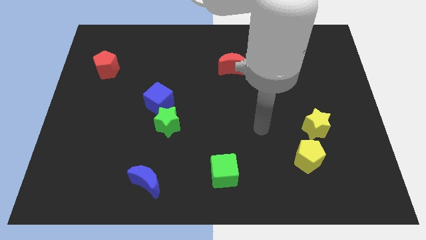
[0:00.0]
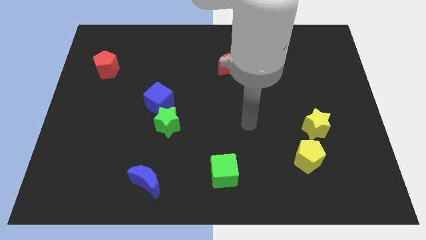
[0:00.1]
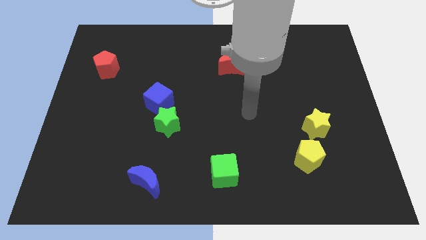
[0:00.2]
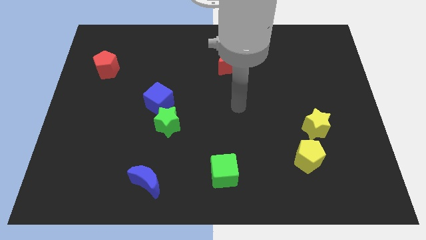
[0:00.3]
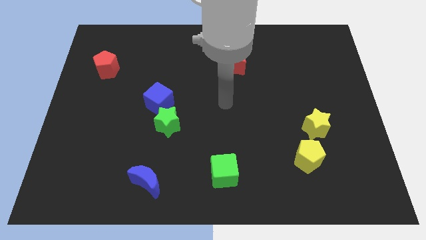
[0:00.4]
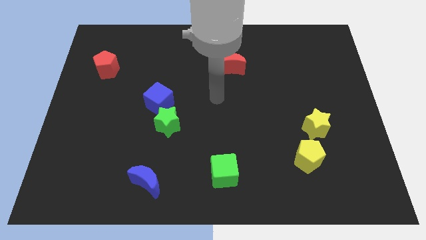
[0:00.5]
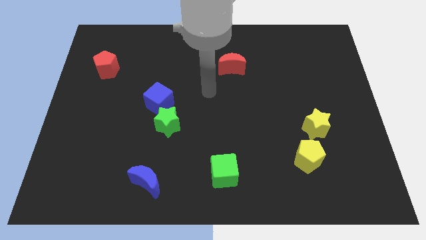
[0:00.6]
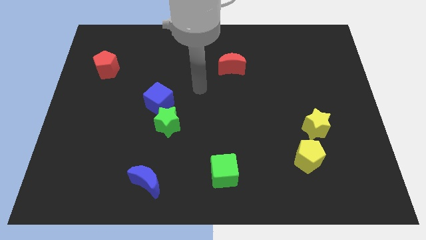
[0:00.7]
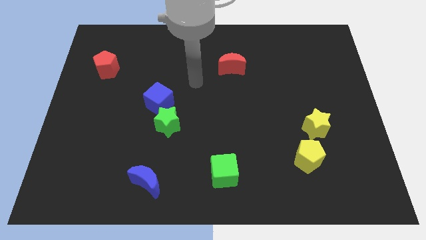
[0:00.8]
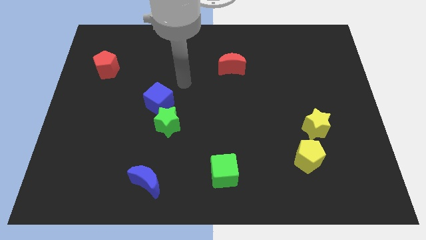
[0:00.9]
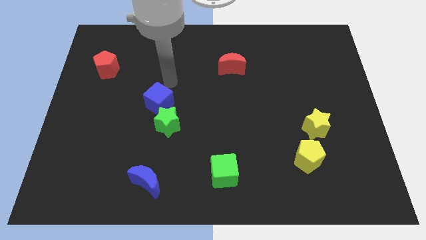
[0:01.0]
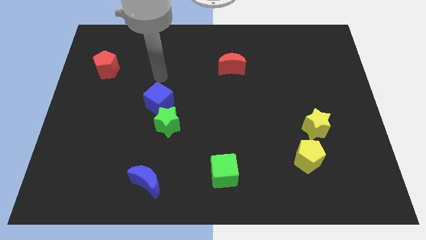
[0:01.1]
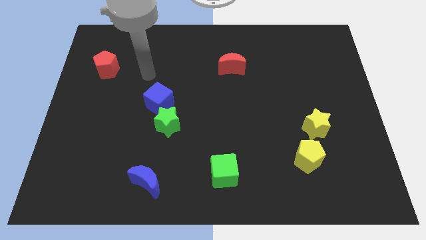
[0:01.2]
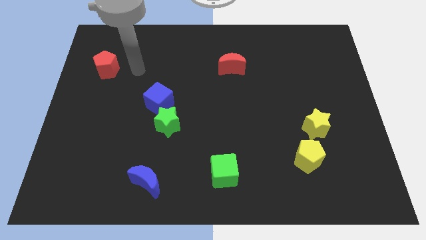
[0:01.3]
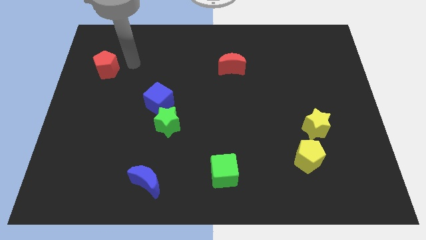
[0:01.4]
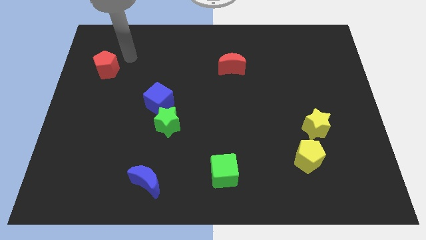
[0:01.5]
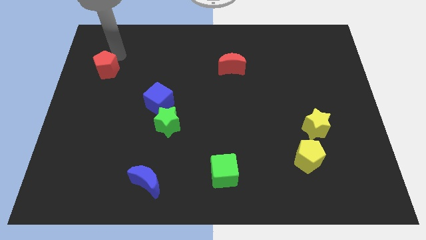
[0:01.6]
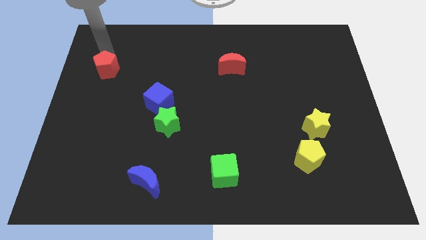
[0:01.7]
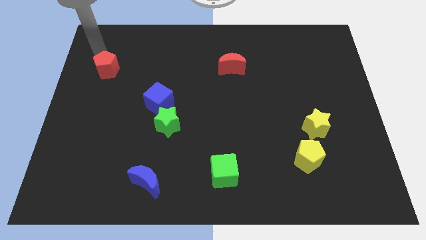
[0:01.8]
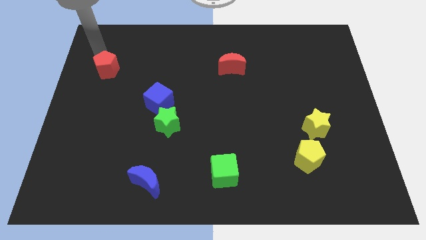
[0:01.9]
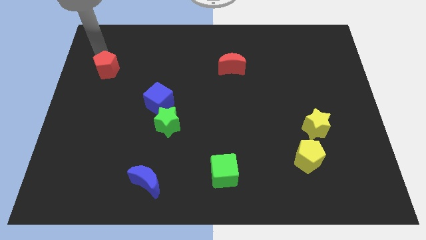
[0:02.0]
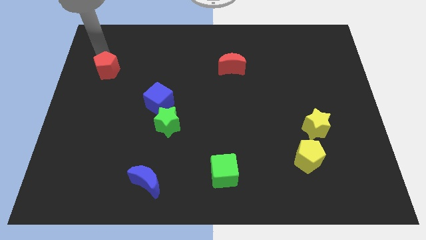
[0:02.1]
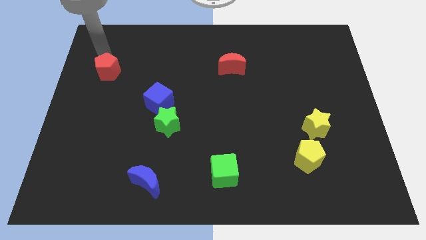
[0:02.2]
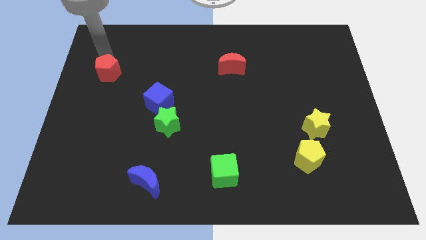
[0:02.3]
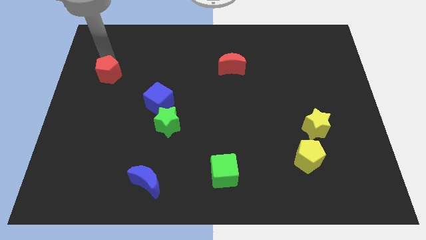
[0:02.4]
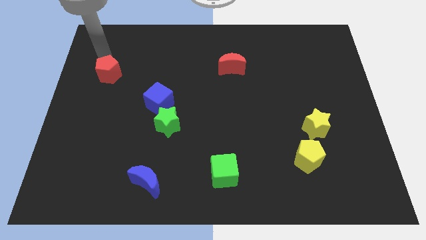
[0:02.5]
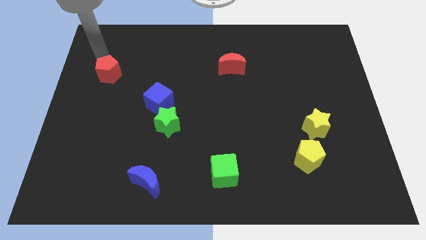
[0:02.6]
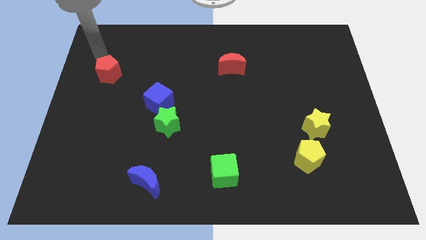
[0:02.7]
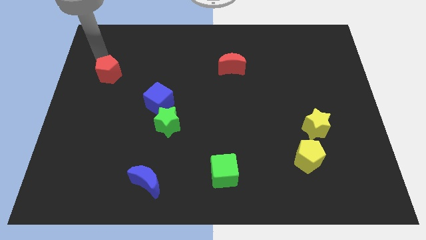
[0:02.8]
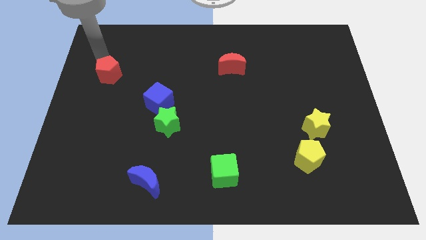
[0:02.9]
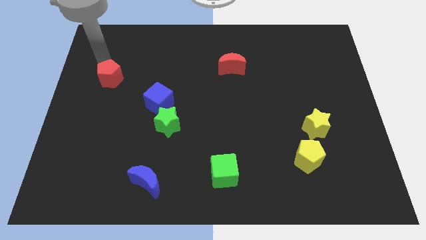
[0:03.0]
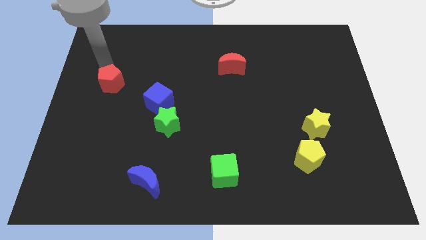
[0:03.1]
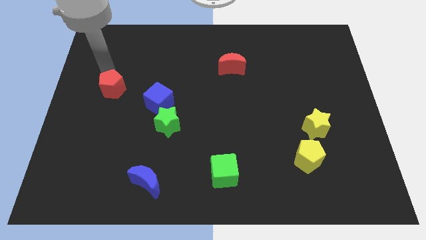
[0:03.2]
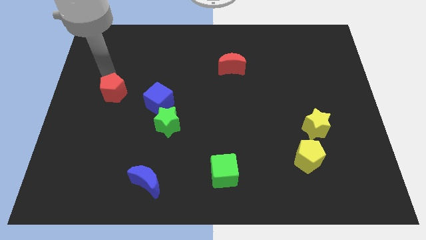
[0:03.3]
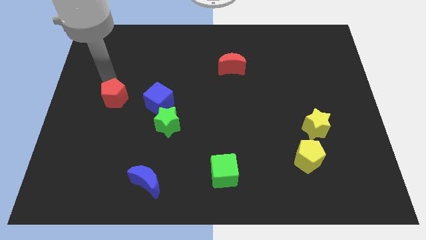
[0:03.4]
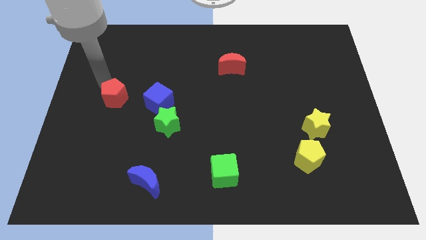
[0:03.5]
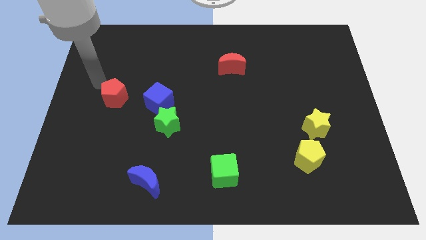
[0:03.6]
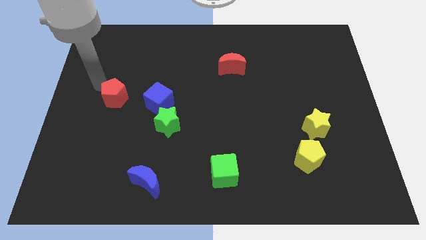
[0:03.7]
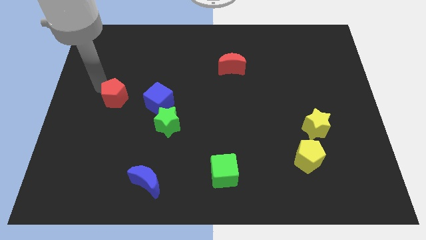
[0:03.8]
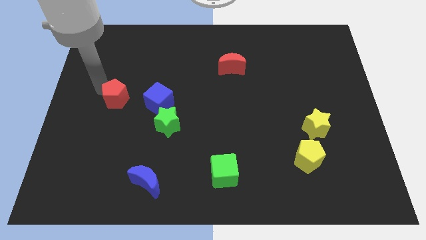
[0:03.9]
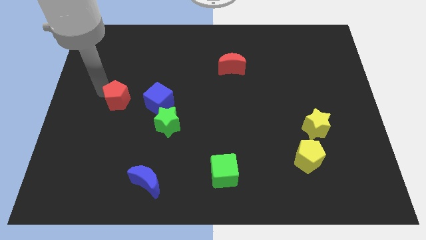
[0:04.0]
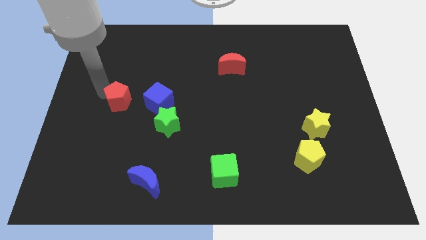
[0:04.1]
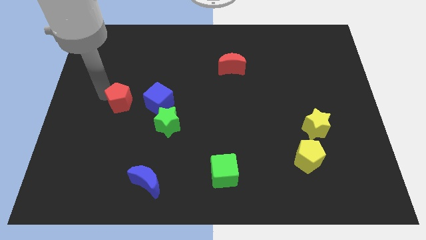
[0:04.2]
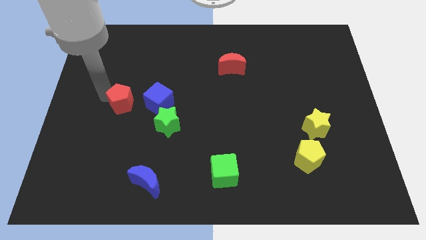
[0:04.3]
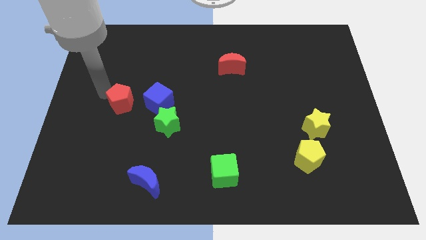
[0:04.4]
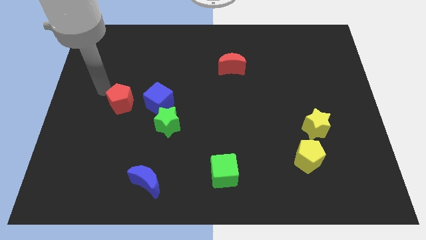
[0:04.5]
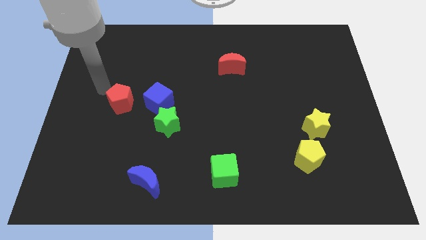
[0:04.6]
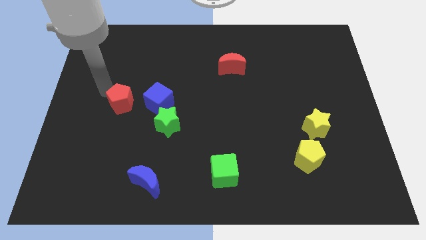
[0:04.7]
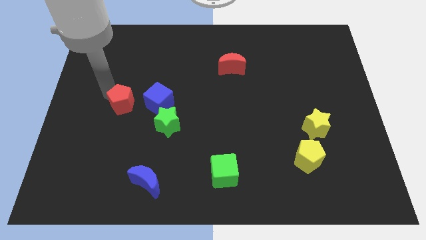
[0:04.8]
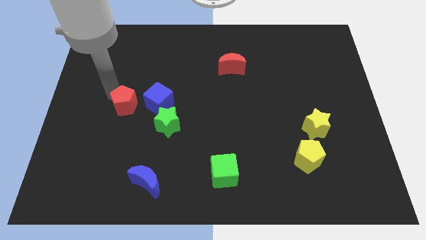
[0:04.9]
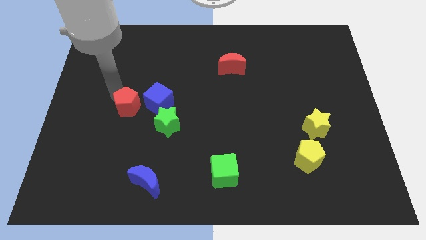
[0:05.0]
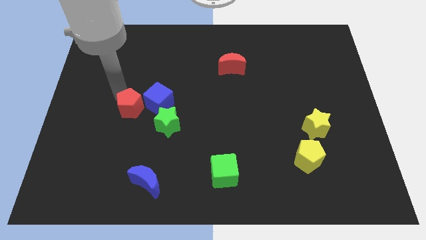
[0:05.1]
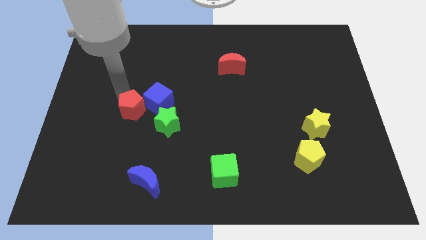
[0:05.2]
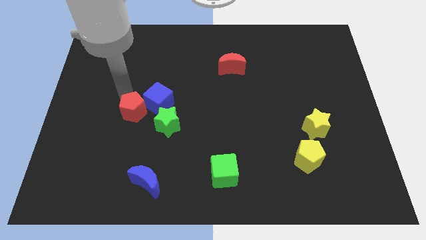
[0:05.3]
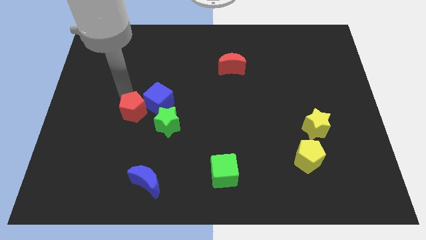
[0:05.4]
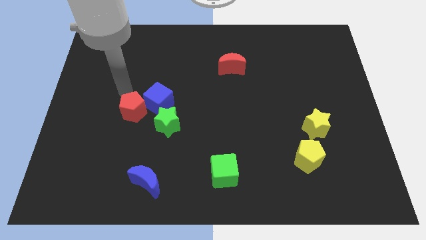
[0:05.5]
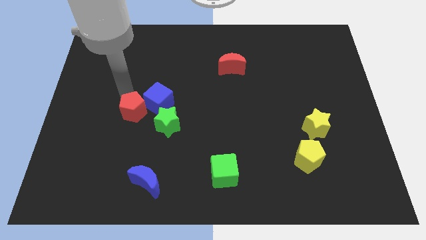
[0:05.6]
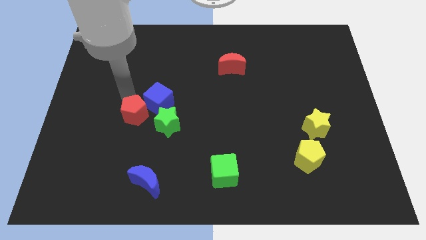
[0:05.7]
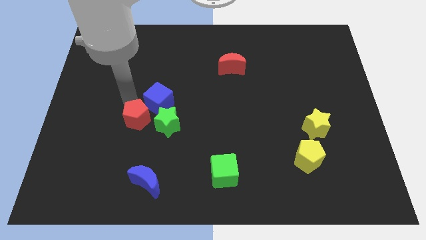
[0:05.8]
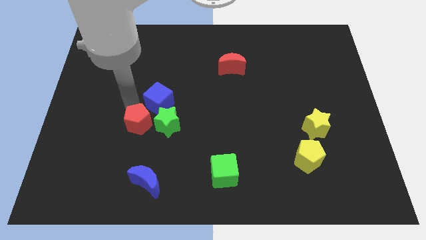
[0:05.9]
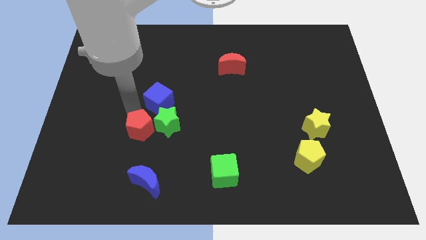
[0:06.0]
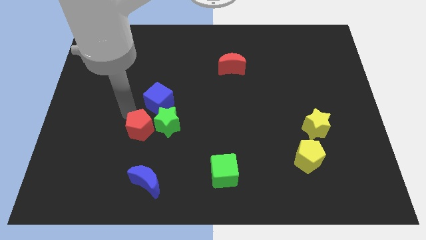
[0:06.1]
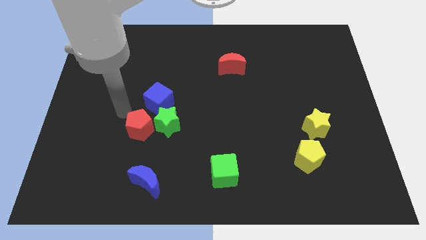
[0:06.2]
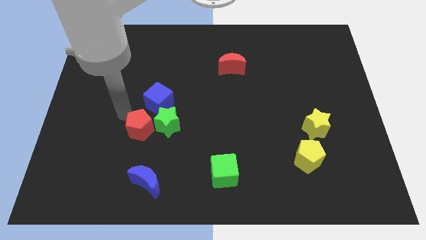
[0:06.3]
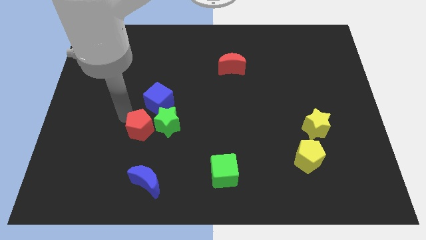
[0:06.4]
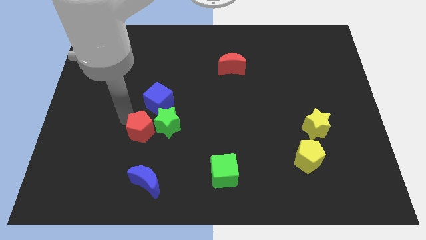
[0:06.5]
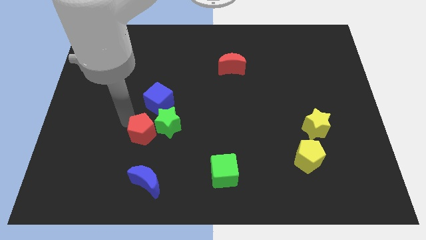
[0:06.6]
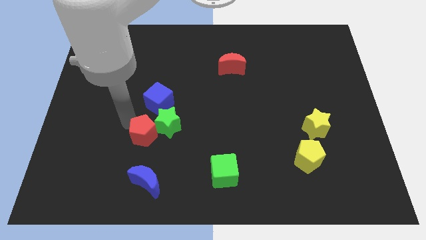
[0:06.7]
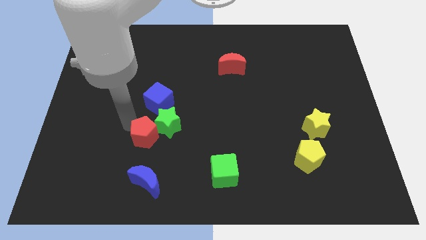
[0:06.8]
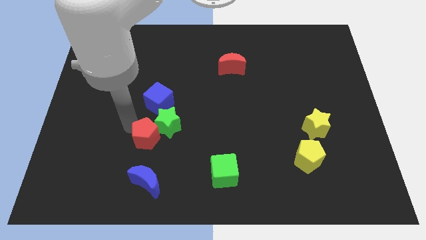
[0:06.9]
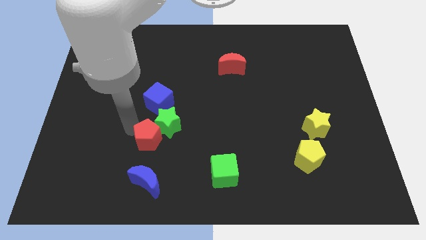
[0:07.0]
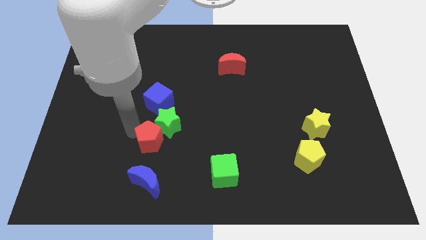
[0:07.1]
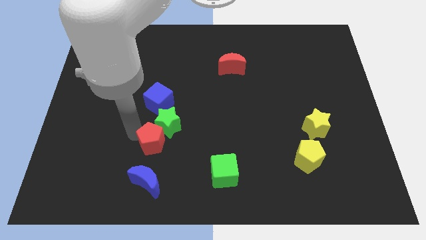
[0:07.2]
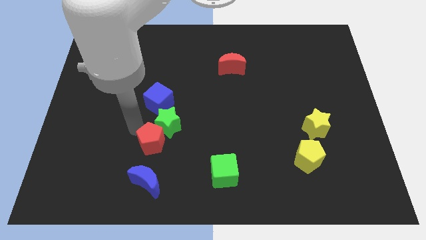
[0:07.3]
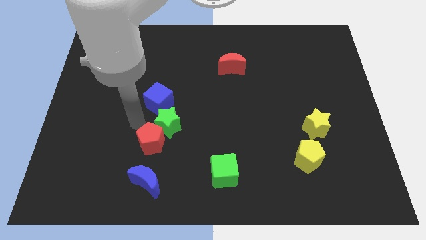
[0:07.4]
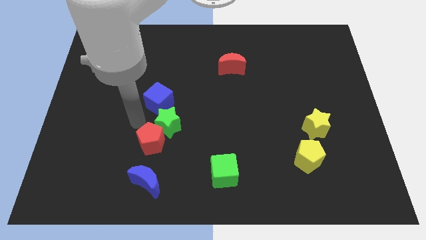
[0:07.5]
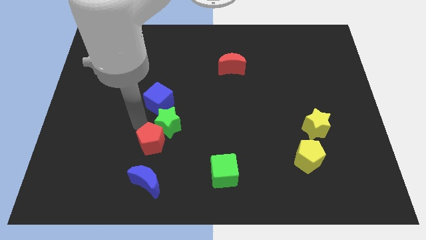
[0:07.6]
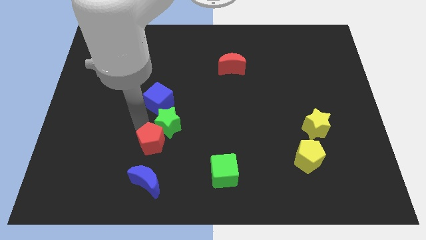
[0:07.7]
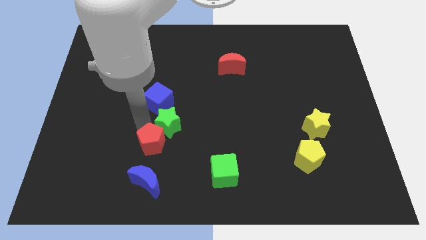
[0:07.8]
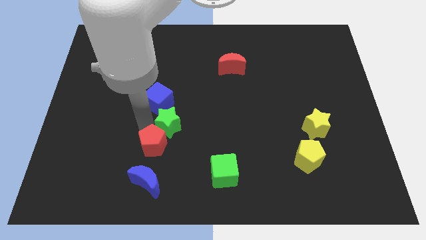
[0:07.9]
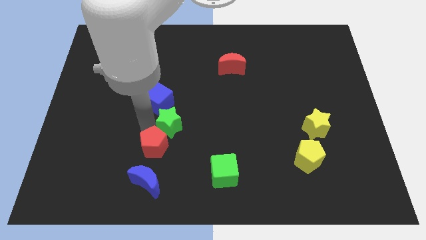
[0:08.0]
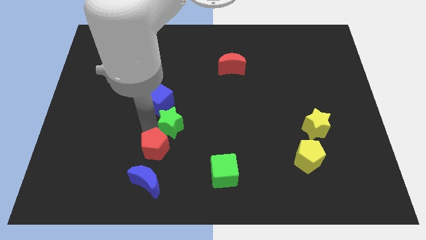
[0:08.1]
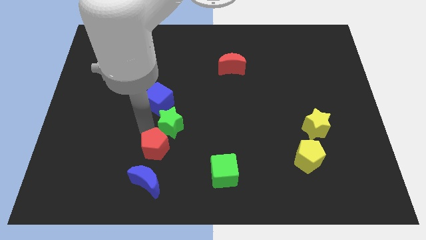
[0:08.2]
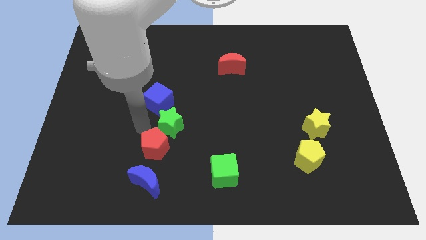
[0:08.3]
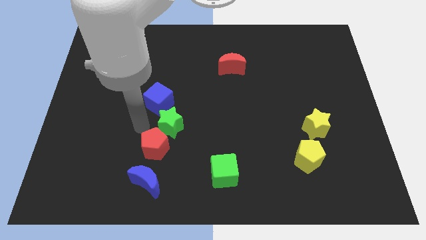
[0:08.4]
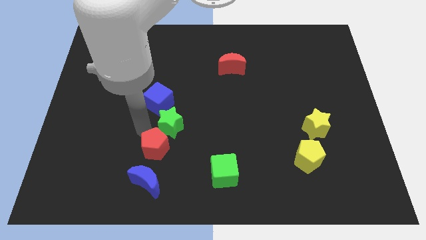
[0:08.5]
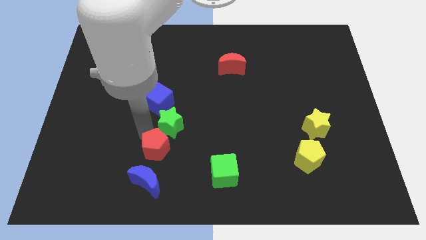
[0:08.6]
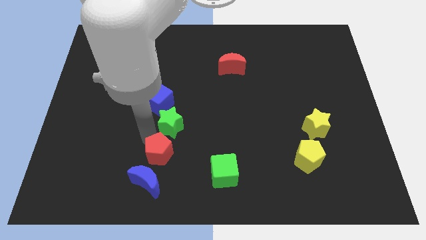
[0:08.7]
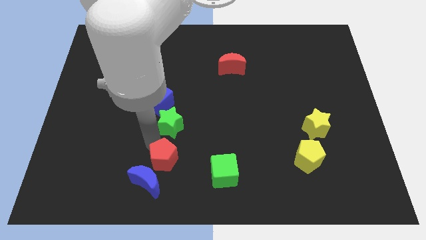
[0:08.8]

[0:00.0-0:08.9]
push the red pentagon to the left of the green cube
